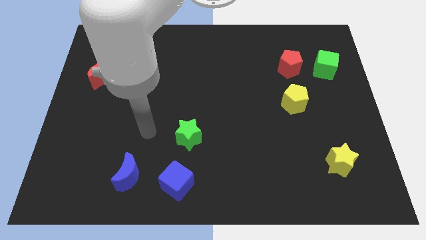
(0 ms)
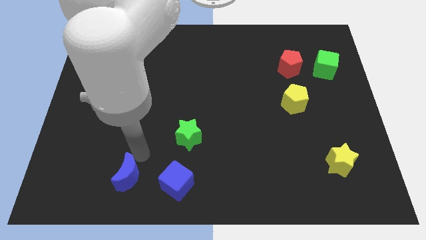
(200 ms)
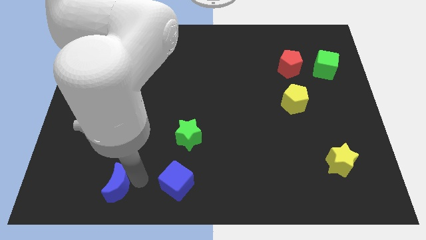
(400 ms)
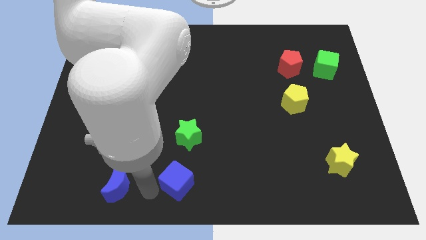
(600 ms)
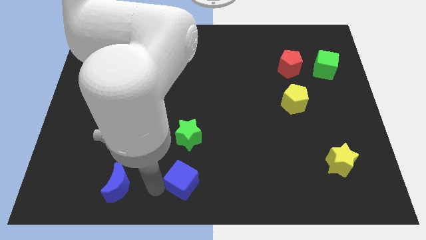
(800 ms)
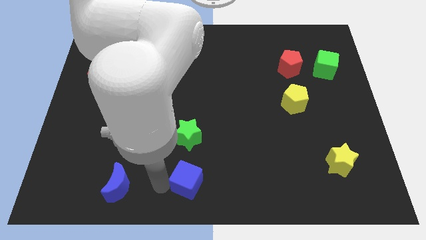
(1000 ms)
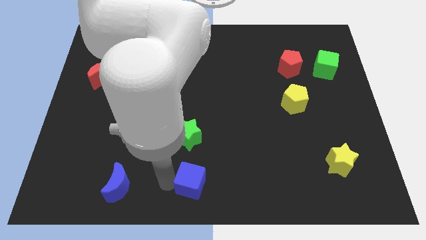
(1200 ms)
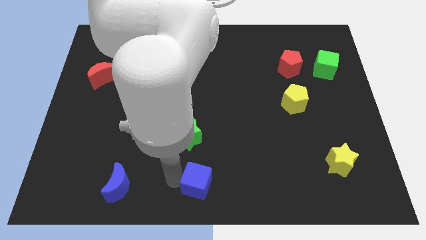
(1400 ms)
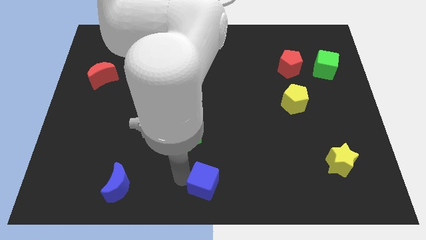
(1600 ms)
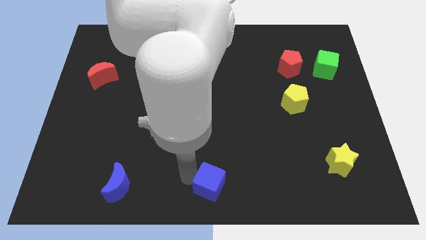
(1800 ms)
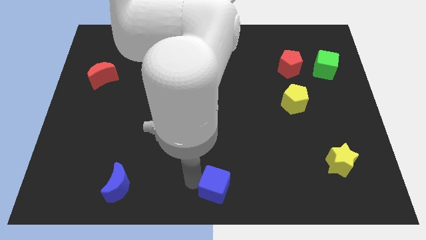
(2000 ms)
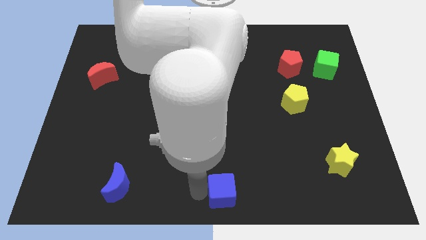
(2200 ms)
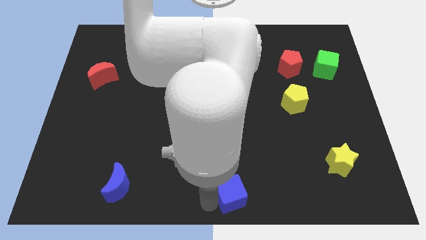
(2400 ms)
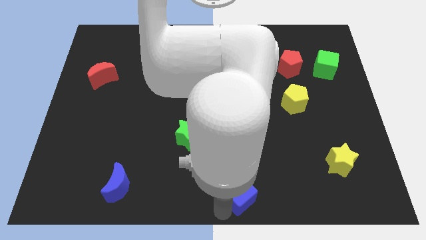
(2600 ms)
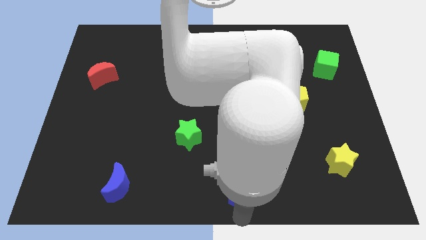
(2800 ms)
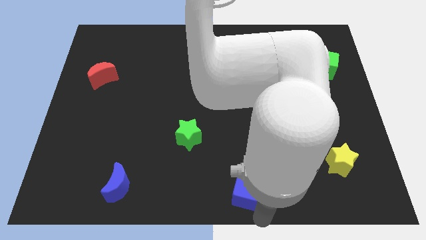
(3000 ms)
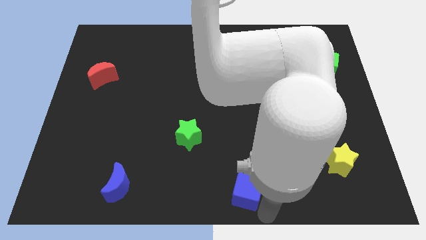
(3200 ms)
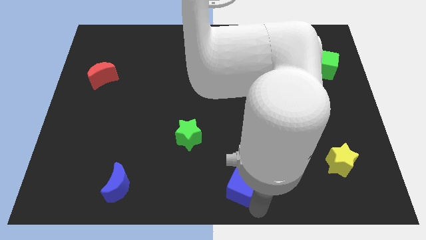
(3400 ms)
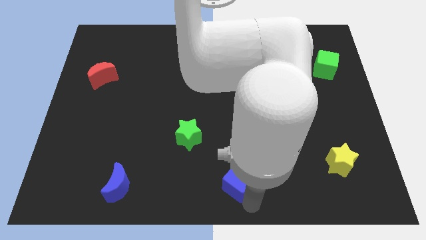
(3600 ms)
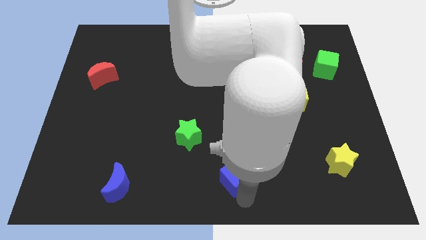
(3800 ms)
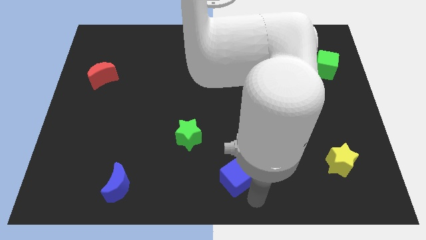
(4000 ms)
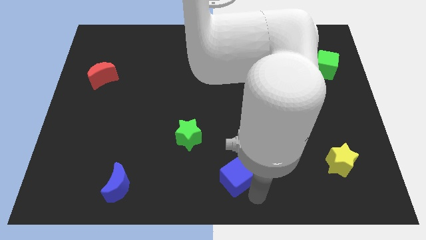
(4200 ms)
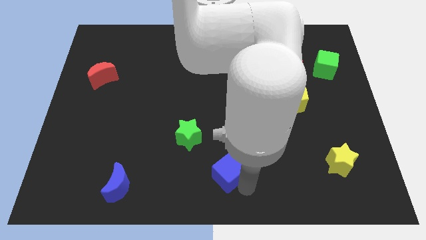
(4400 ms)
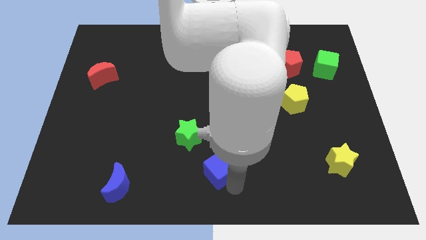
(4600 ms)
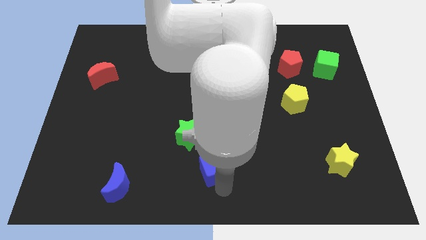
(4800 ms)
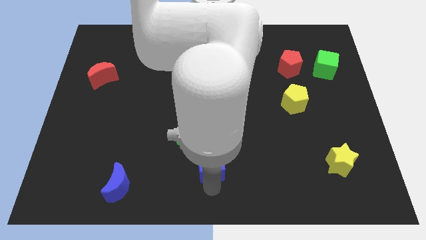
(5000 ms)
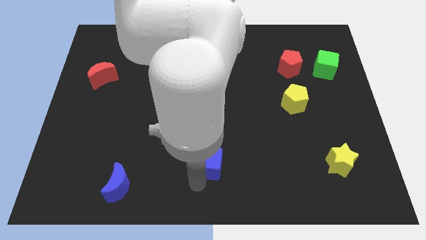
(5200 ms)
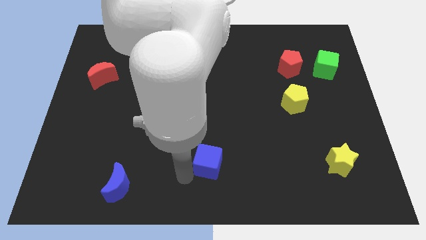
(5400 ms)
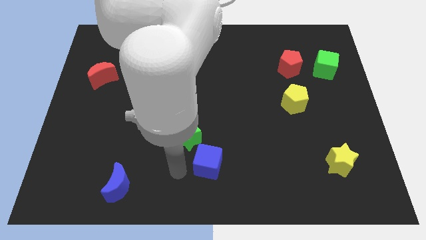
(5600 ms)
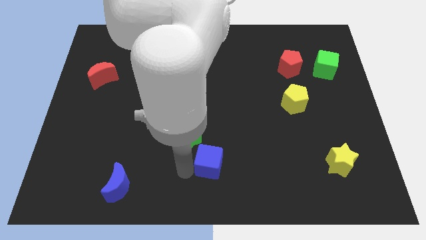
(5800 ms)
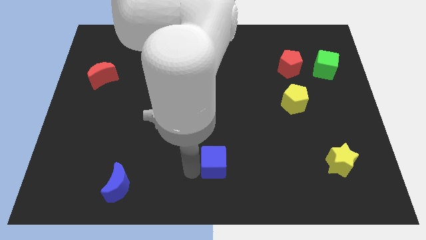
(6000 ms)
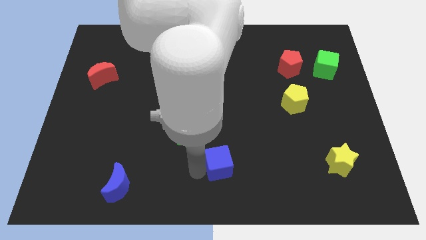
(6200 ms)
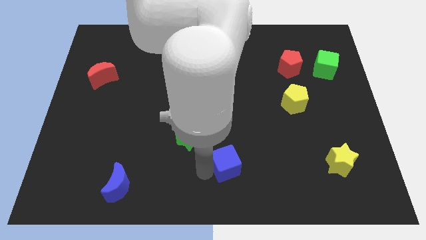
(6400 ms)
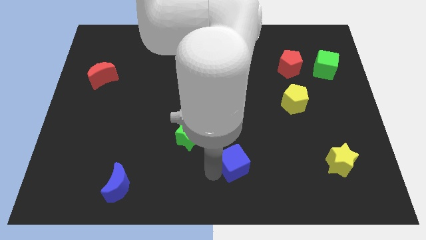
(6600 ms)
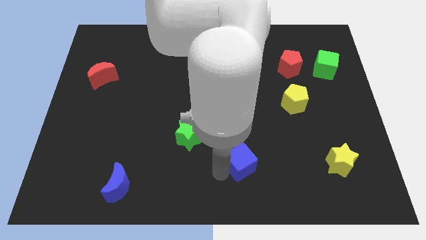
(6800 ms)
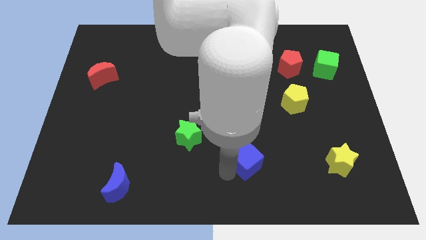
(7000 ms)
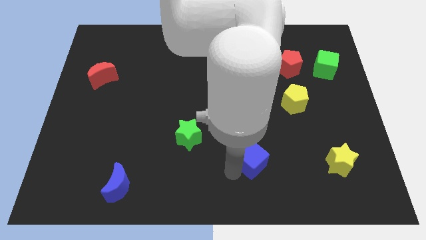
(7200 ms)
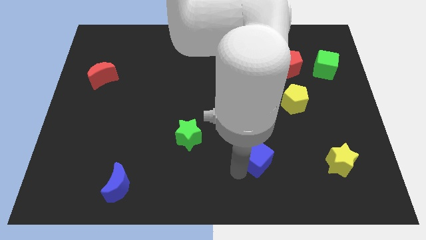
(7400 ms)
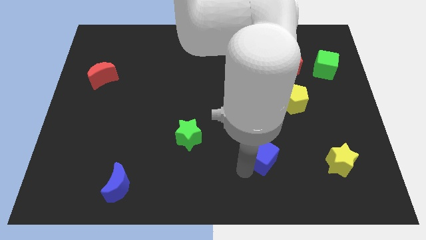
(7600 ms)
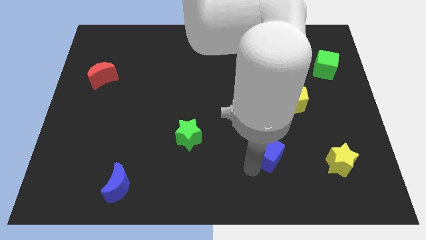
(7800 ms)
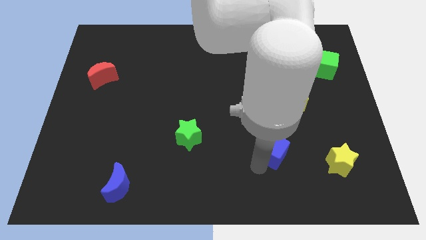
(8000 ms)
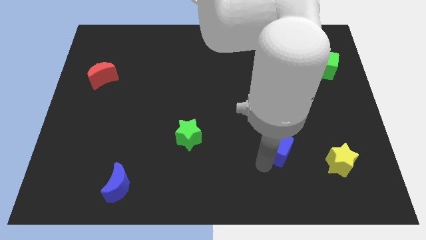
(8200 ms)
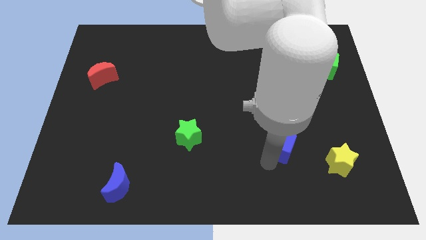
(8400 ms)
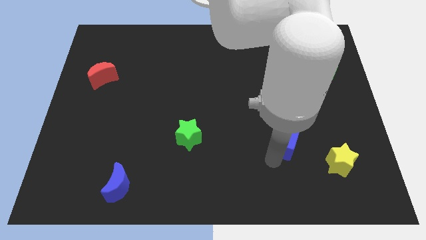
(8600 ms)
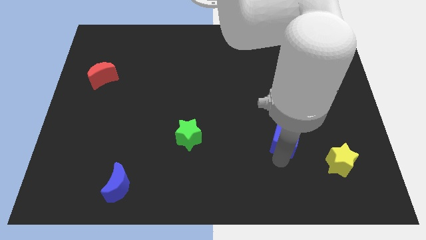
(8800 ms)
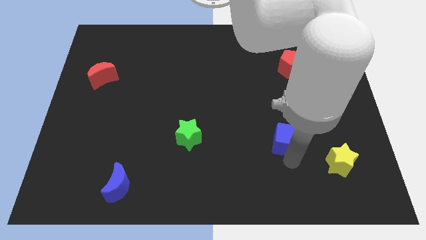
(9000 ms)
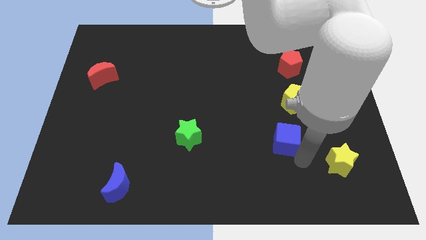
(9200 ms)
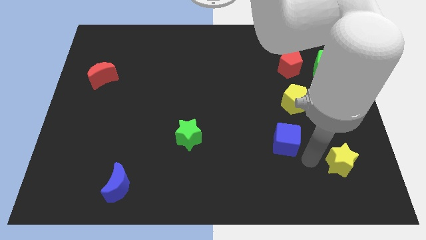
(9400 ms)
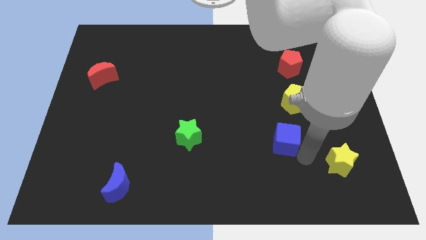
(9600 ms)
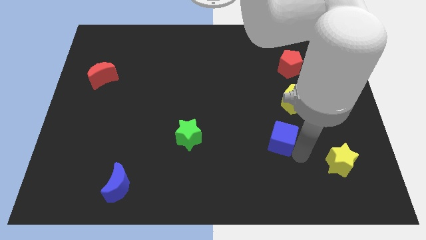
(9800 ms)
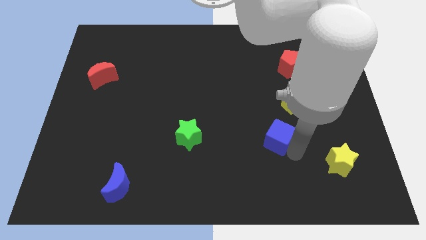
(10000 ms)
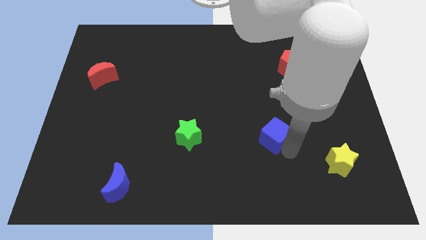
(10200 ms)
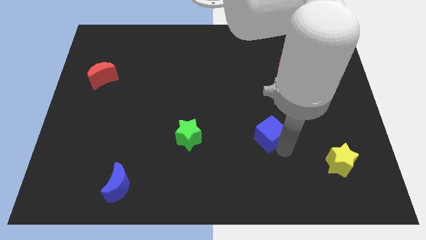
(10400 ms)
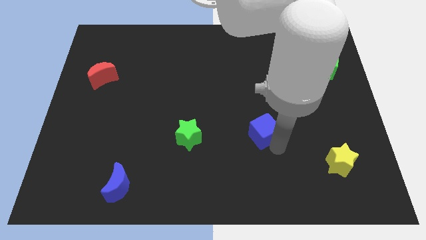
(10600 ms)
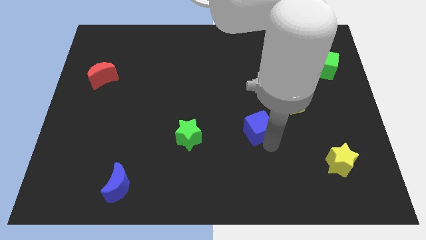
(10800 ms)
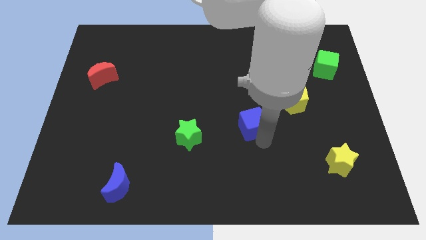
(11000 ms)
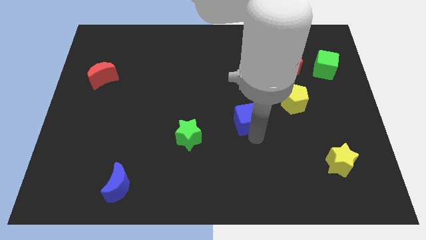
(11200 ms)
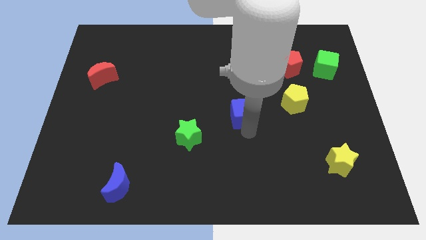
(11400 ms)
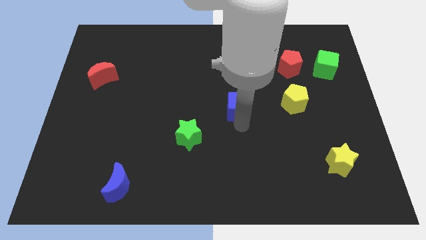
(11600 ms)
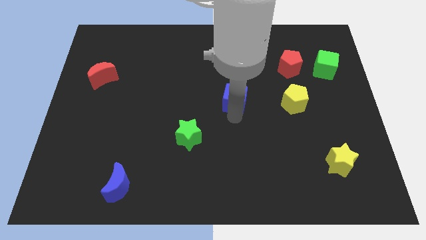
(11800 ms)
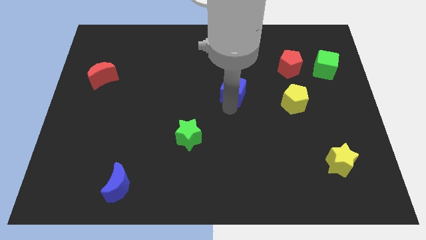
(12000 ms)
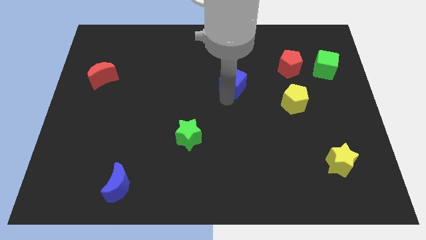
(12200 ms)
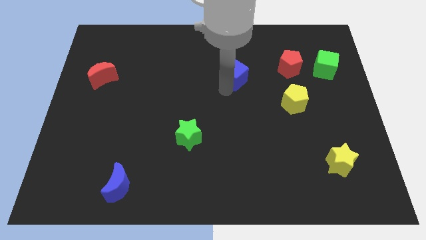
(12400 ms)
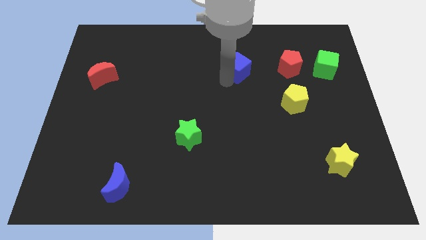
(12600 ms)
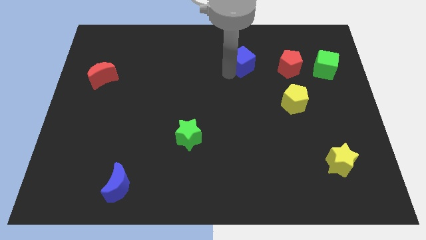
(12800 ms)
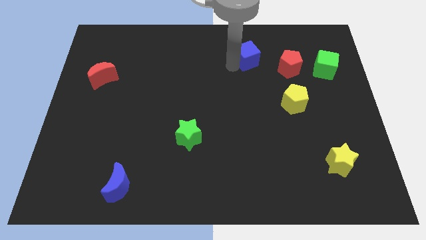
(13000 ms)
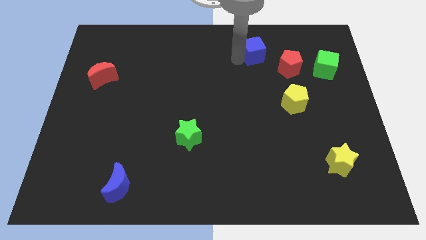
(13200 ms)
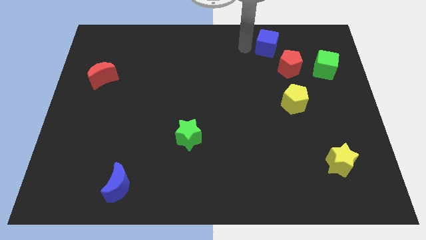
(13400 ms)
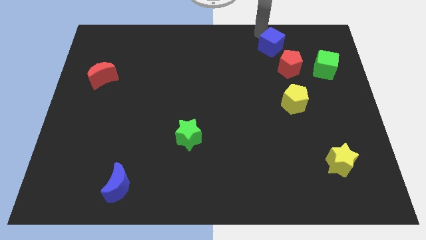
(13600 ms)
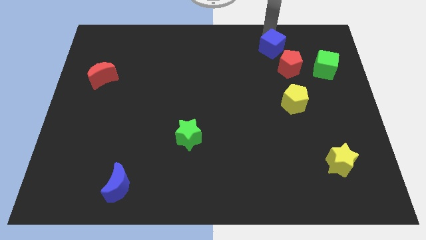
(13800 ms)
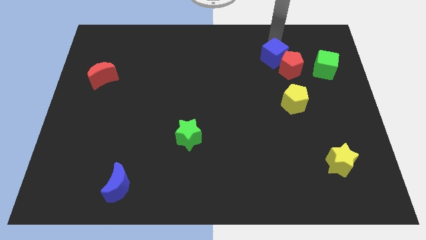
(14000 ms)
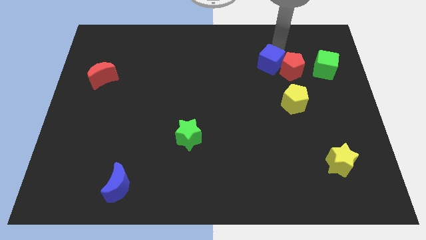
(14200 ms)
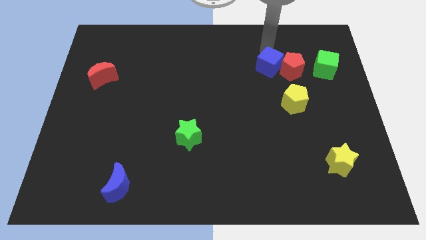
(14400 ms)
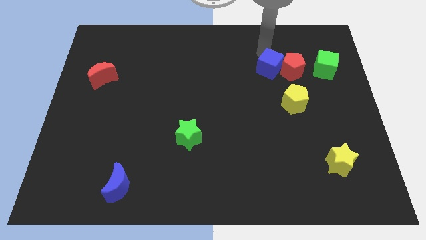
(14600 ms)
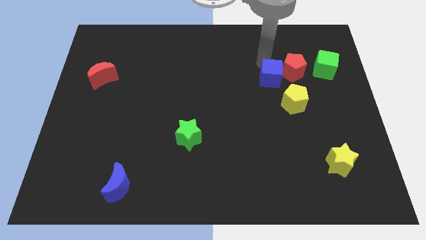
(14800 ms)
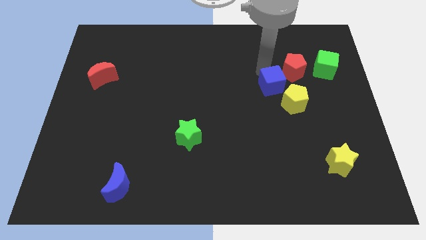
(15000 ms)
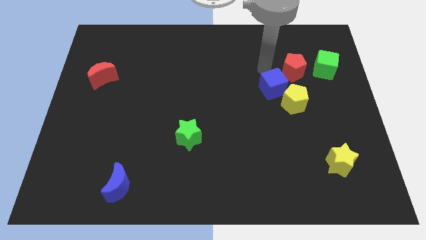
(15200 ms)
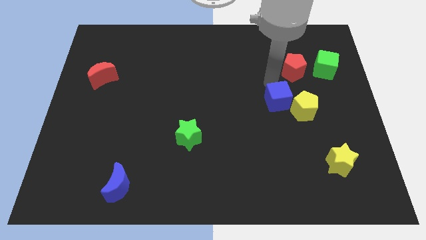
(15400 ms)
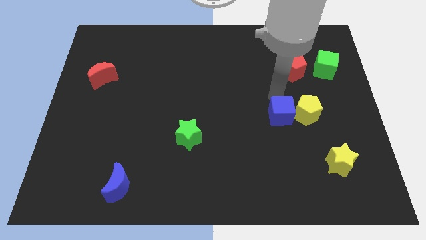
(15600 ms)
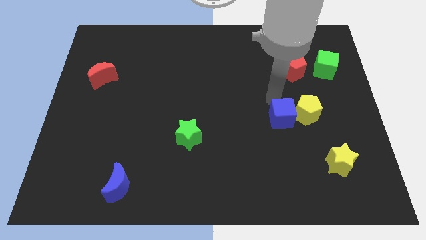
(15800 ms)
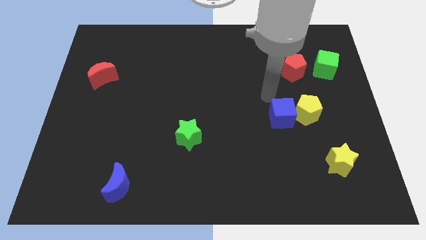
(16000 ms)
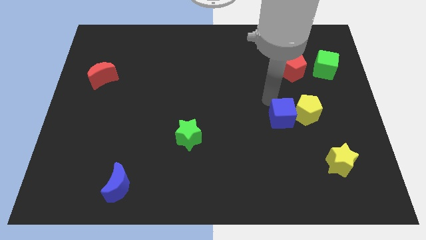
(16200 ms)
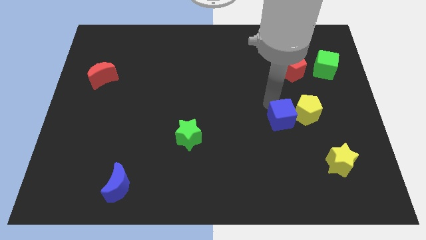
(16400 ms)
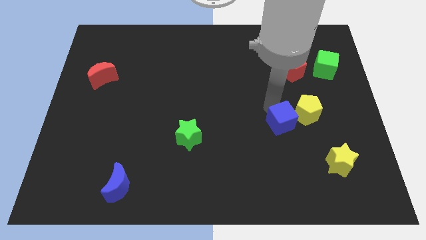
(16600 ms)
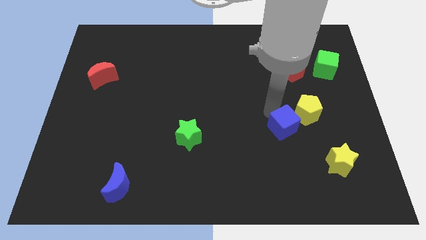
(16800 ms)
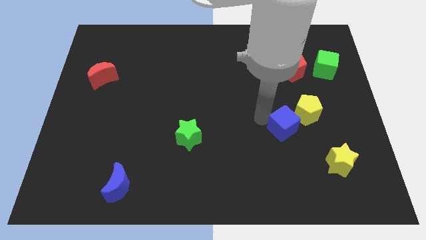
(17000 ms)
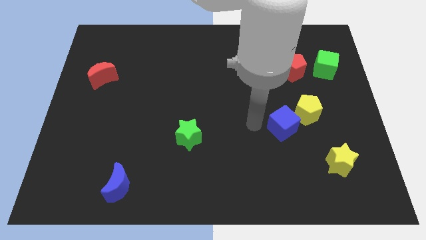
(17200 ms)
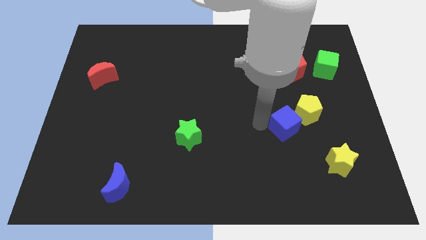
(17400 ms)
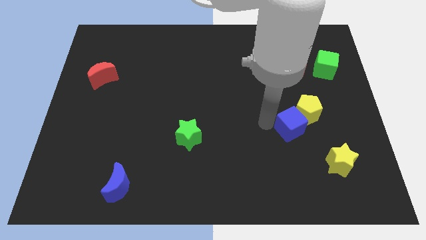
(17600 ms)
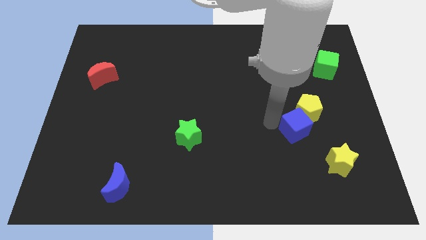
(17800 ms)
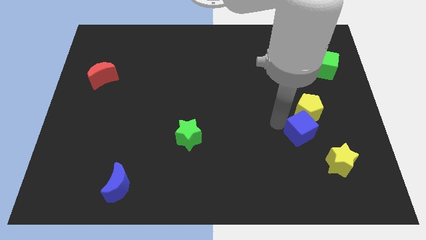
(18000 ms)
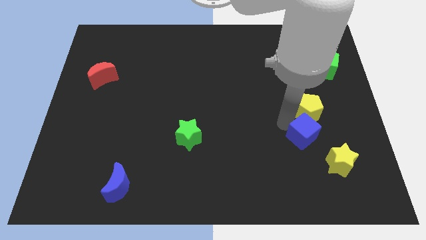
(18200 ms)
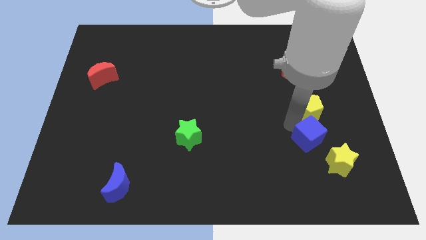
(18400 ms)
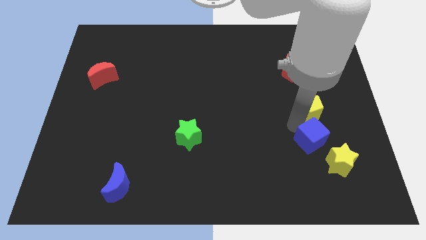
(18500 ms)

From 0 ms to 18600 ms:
push the blue cube above the yellow star
